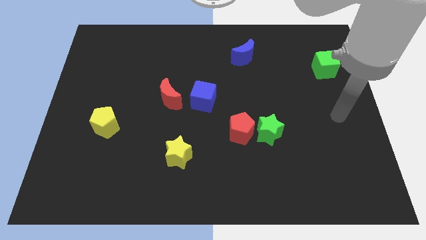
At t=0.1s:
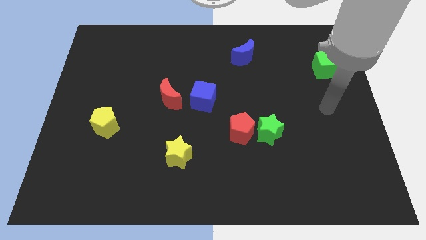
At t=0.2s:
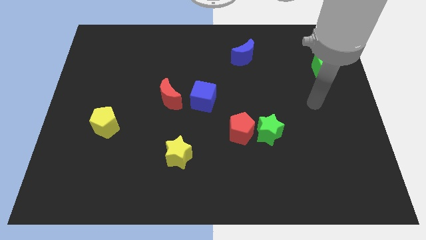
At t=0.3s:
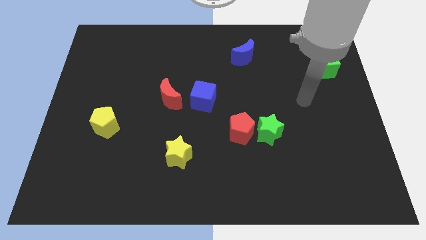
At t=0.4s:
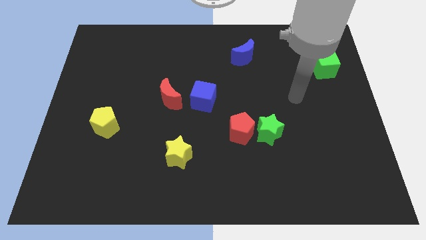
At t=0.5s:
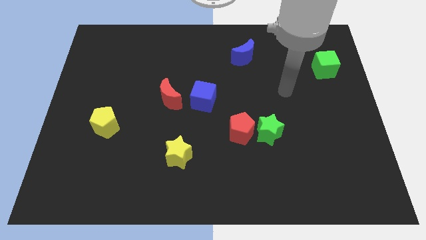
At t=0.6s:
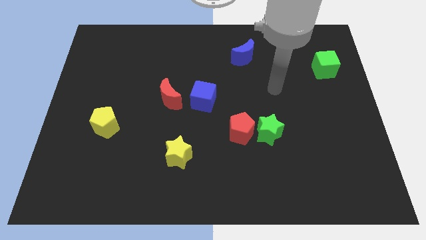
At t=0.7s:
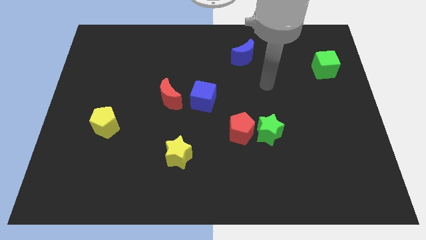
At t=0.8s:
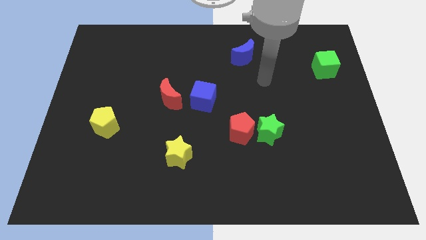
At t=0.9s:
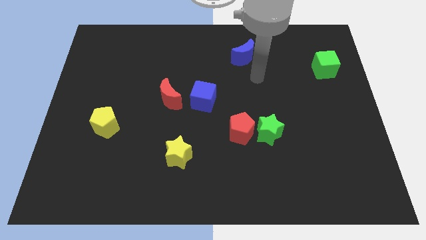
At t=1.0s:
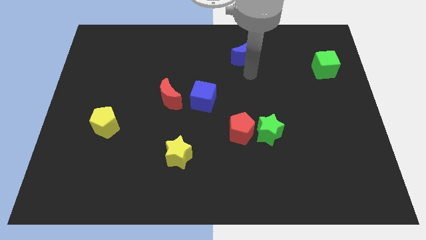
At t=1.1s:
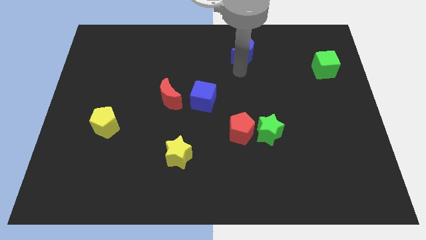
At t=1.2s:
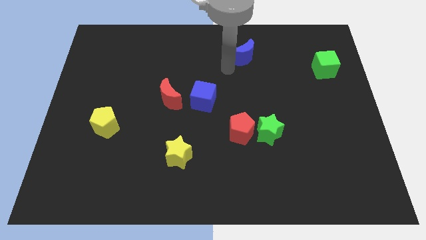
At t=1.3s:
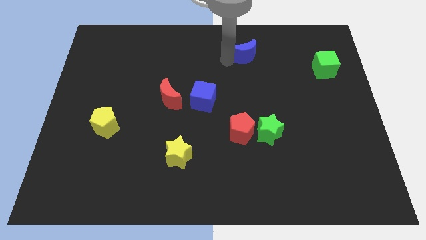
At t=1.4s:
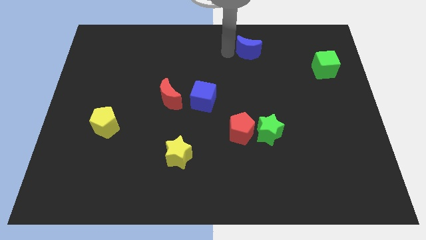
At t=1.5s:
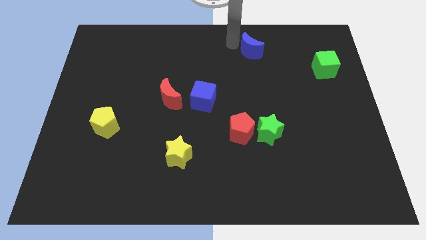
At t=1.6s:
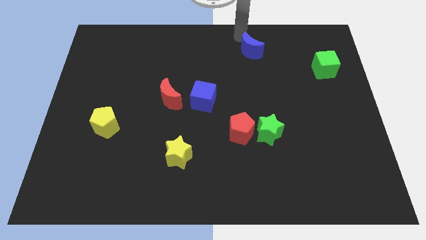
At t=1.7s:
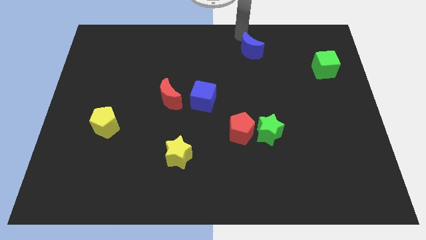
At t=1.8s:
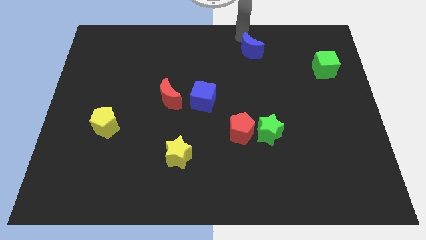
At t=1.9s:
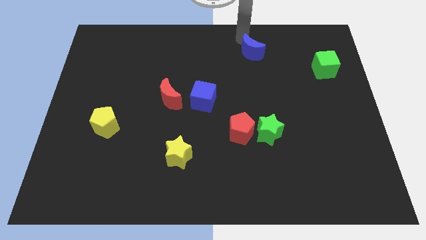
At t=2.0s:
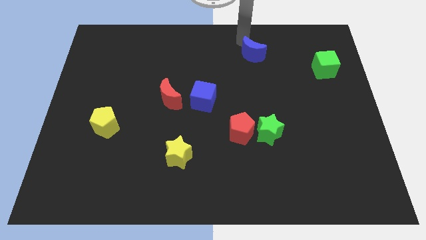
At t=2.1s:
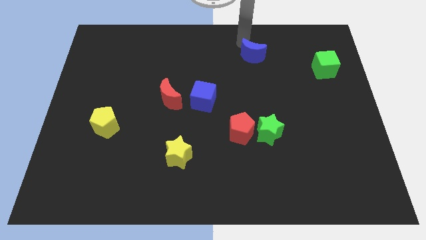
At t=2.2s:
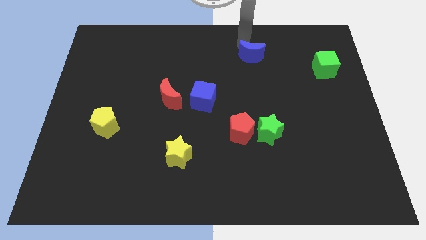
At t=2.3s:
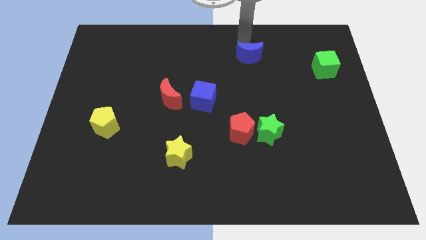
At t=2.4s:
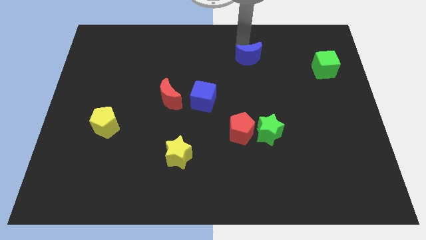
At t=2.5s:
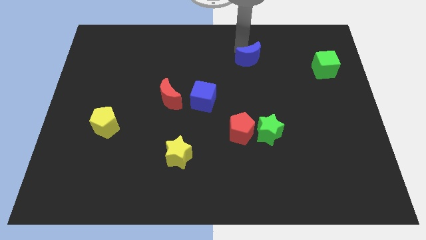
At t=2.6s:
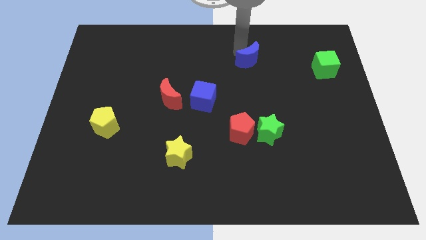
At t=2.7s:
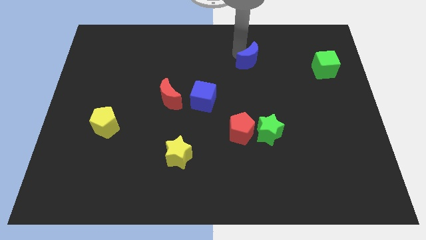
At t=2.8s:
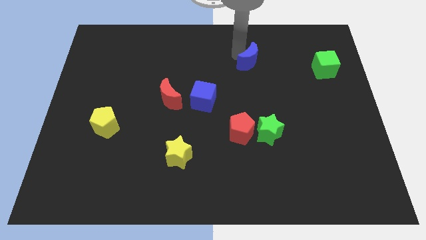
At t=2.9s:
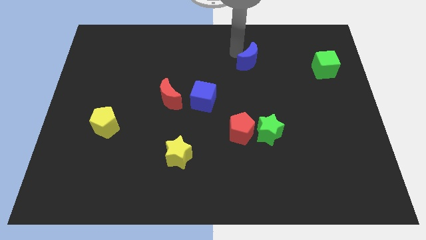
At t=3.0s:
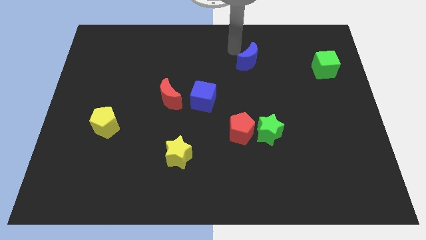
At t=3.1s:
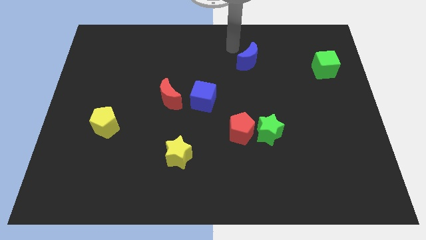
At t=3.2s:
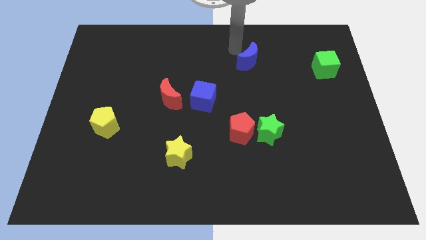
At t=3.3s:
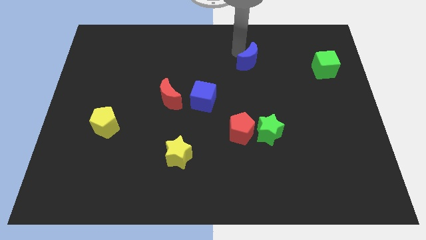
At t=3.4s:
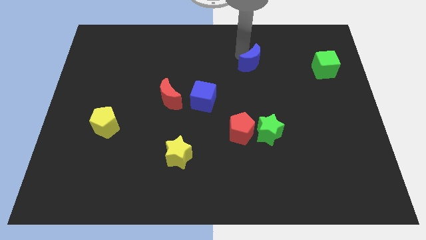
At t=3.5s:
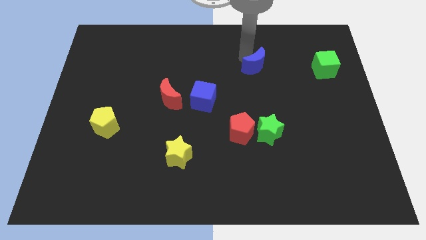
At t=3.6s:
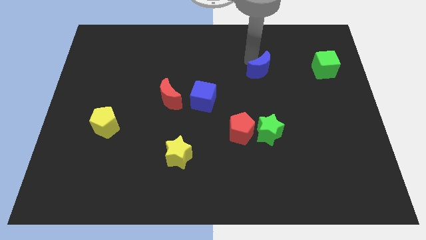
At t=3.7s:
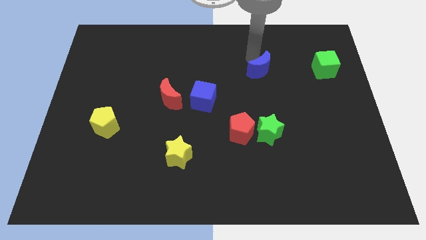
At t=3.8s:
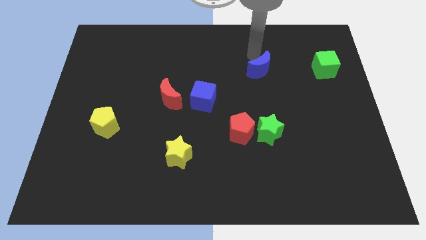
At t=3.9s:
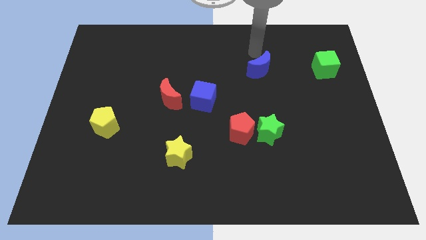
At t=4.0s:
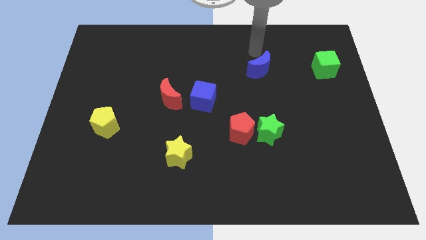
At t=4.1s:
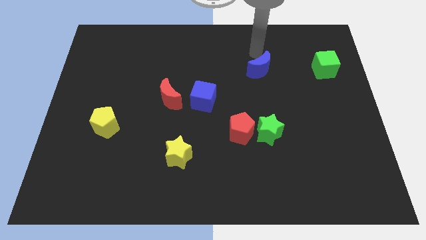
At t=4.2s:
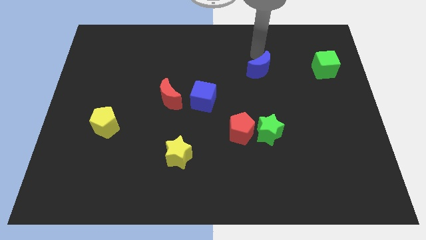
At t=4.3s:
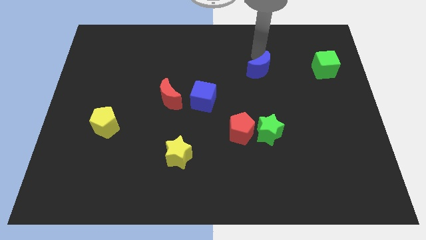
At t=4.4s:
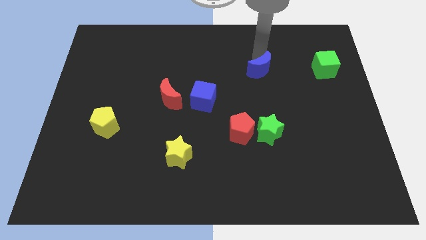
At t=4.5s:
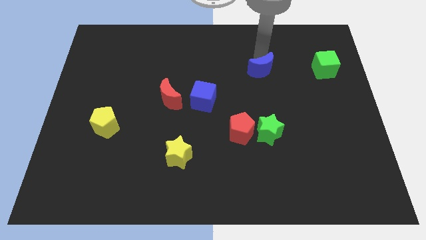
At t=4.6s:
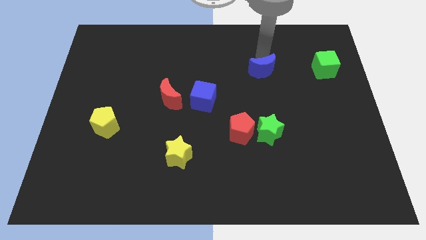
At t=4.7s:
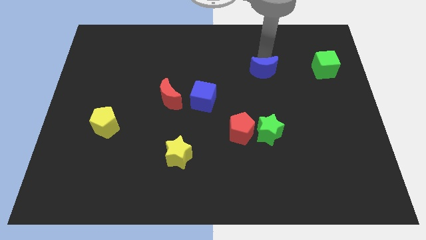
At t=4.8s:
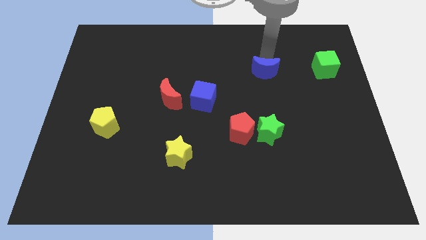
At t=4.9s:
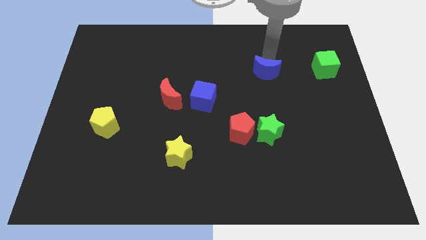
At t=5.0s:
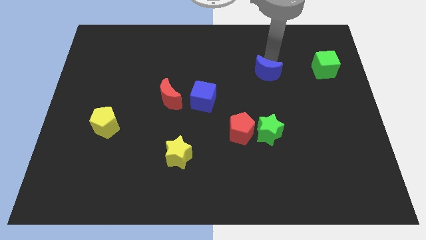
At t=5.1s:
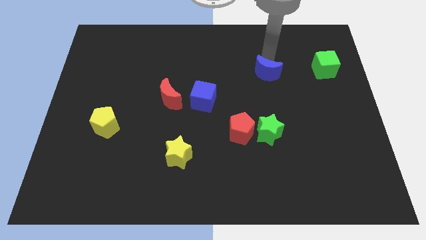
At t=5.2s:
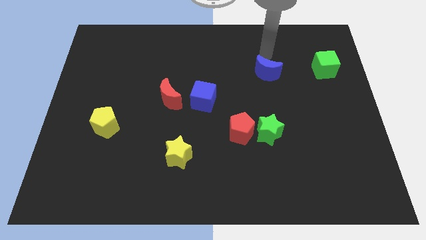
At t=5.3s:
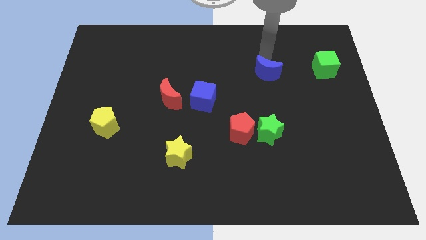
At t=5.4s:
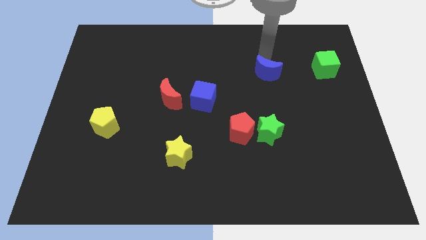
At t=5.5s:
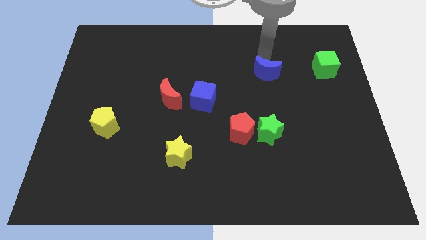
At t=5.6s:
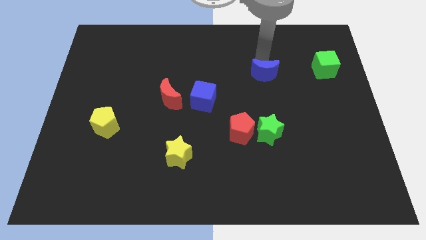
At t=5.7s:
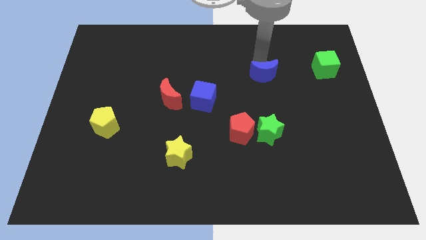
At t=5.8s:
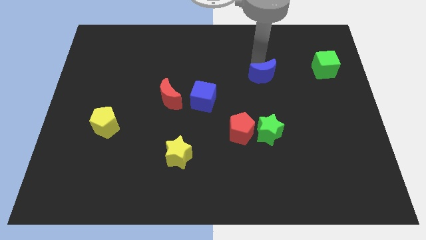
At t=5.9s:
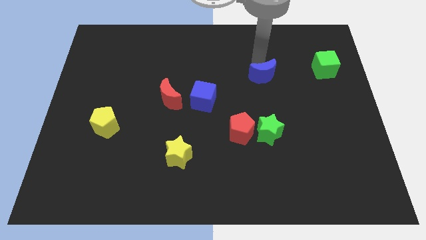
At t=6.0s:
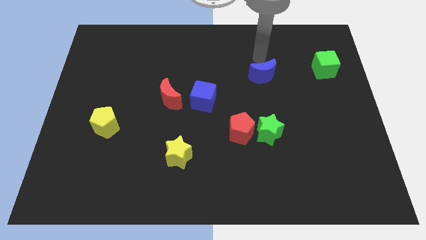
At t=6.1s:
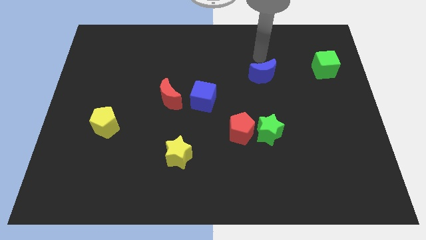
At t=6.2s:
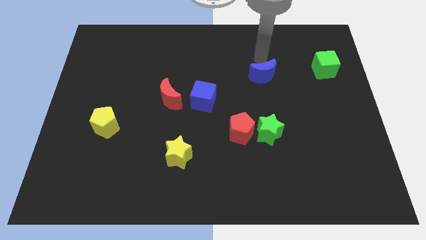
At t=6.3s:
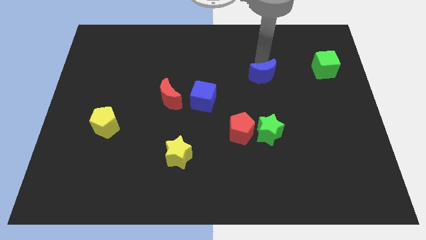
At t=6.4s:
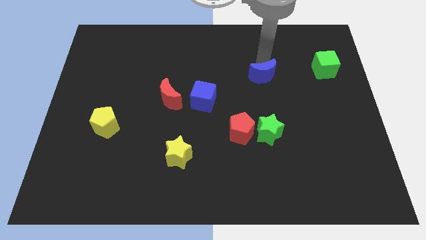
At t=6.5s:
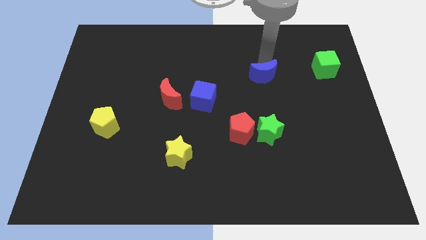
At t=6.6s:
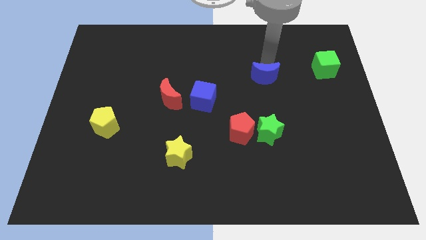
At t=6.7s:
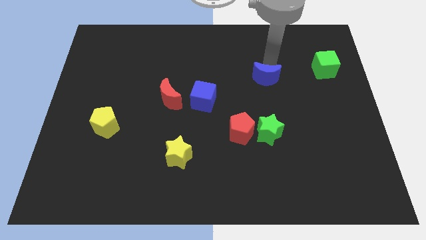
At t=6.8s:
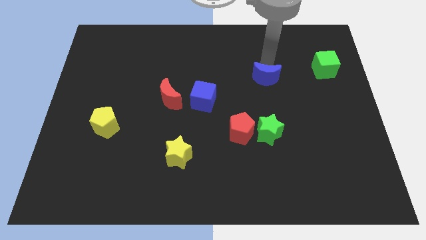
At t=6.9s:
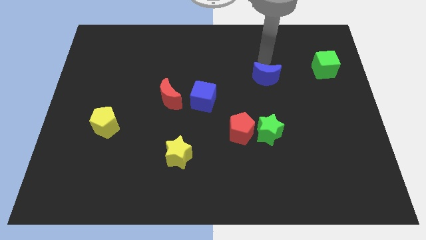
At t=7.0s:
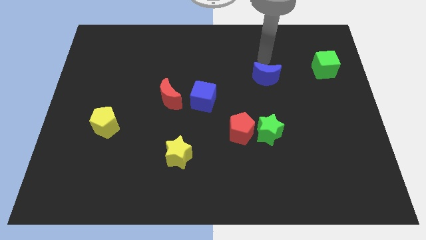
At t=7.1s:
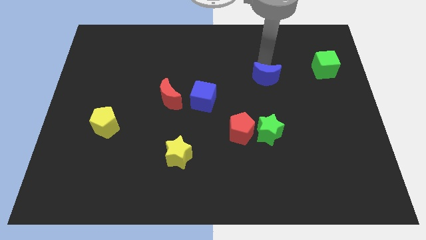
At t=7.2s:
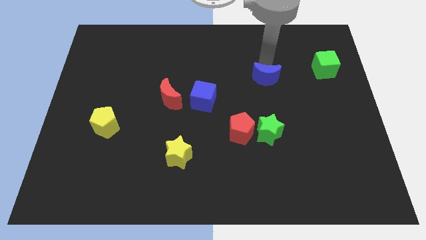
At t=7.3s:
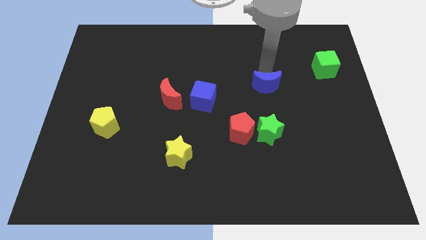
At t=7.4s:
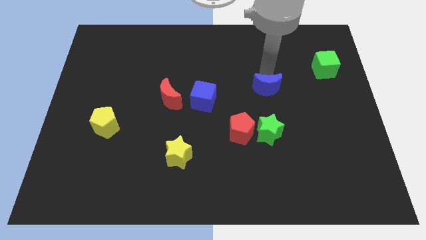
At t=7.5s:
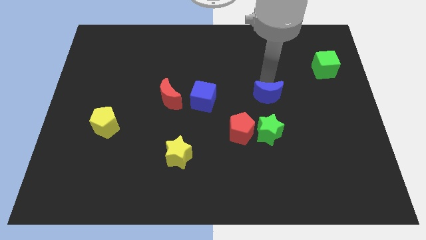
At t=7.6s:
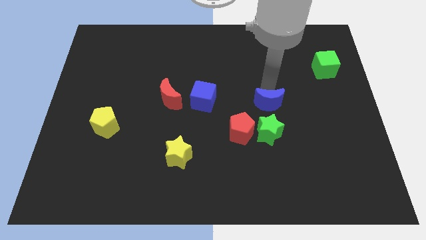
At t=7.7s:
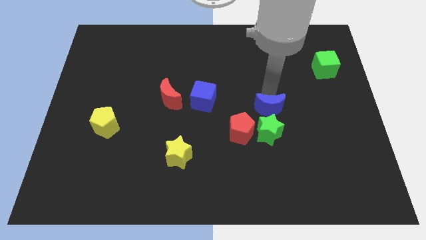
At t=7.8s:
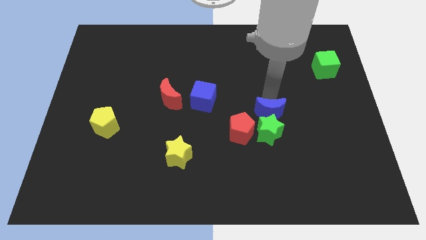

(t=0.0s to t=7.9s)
slide the blue moon close to the green star
